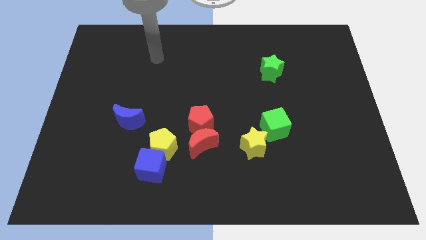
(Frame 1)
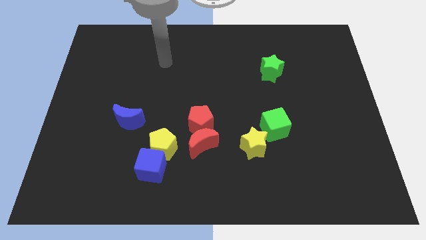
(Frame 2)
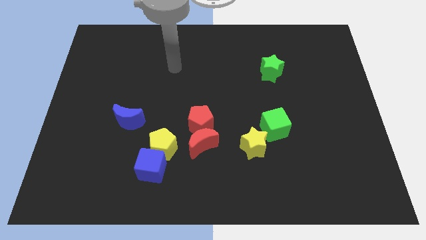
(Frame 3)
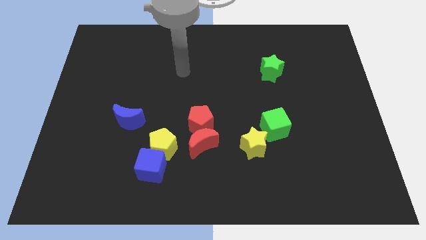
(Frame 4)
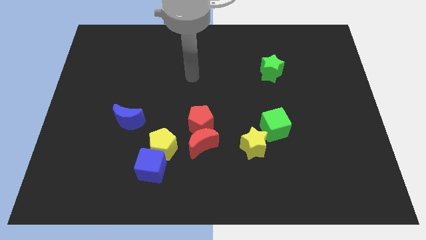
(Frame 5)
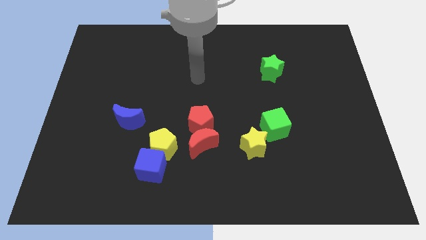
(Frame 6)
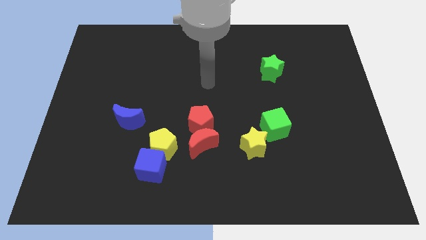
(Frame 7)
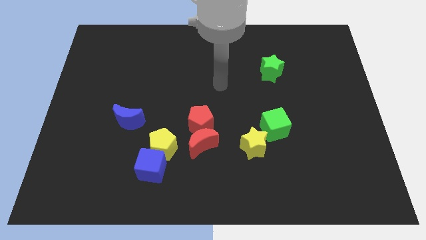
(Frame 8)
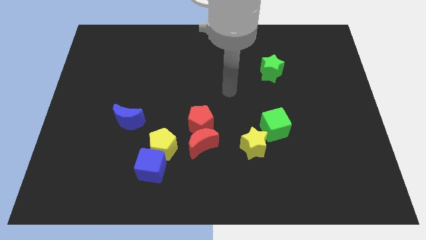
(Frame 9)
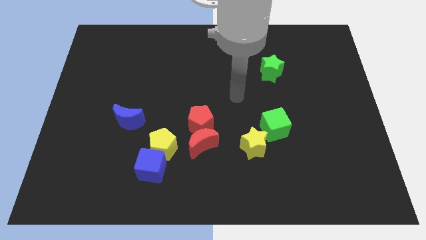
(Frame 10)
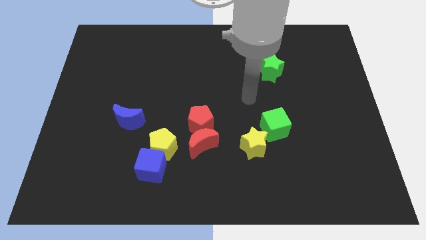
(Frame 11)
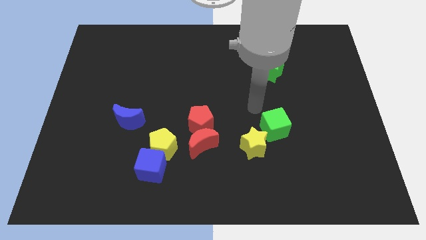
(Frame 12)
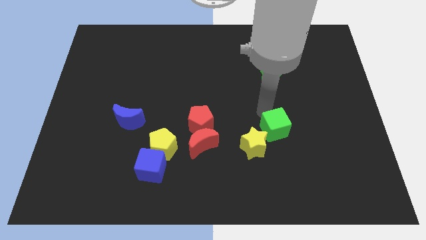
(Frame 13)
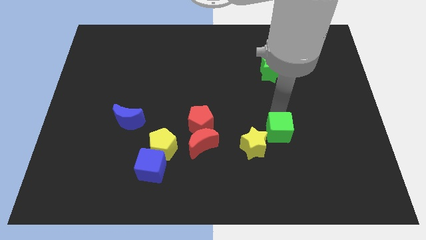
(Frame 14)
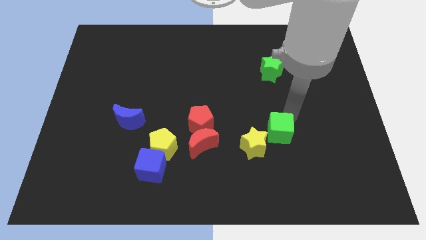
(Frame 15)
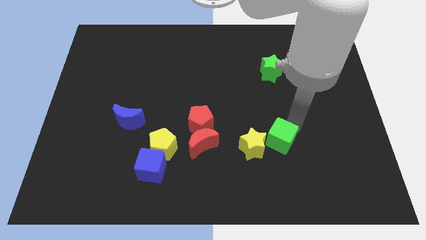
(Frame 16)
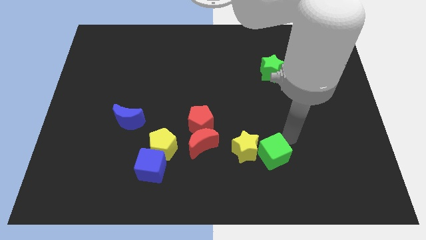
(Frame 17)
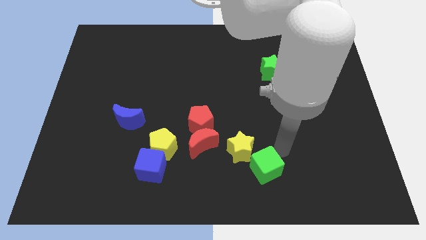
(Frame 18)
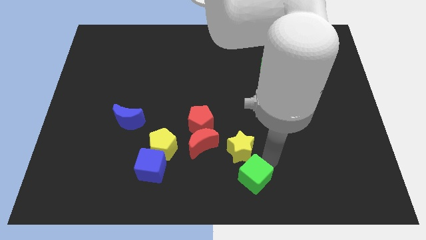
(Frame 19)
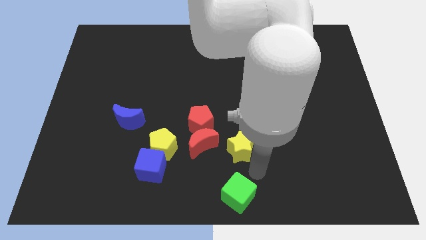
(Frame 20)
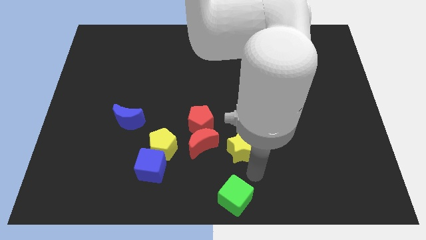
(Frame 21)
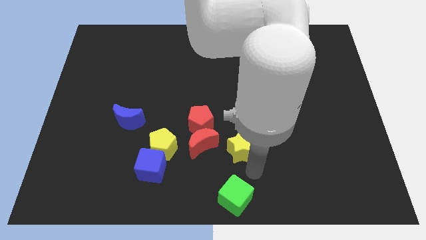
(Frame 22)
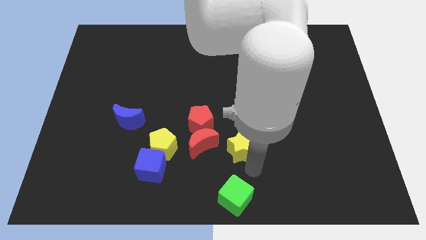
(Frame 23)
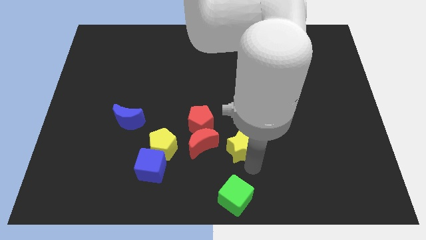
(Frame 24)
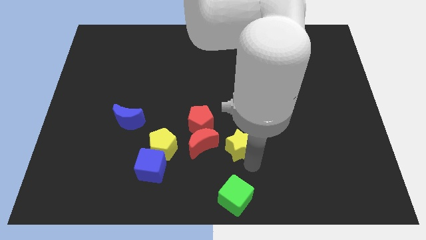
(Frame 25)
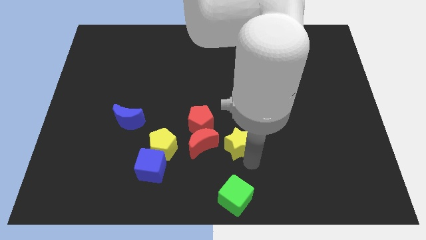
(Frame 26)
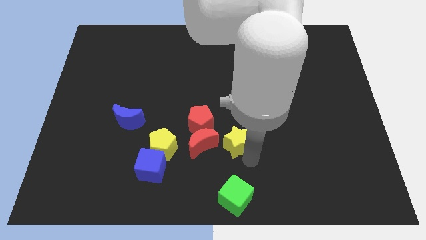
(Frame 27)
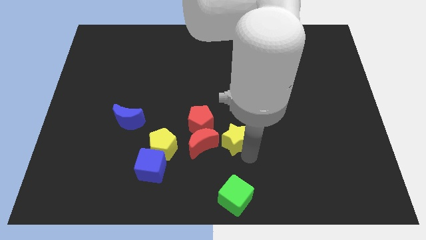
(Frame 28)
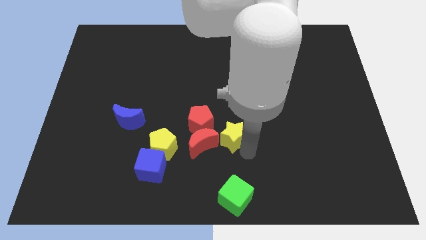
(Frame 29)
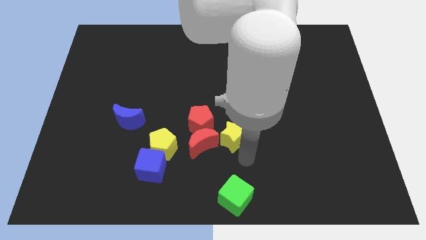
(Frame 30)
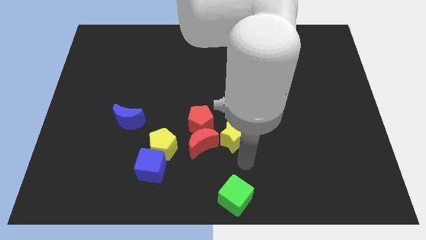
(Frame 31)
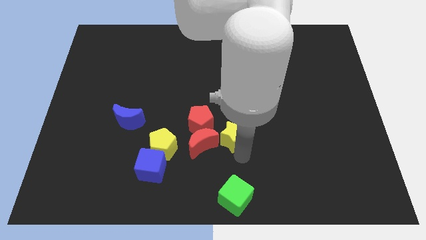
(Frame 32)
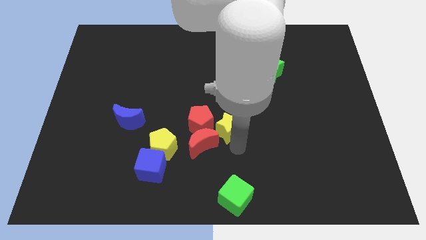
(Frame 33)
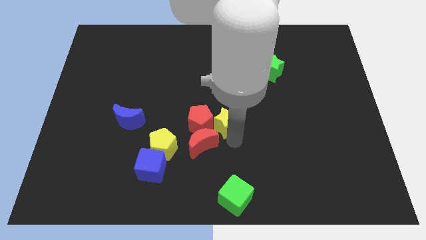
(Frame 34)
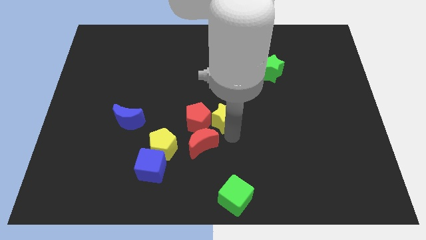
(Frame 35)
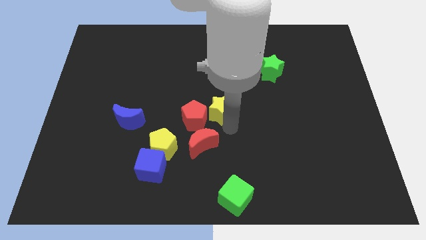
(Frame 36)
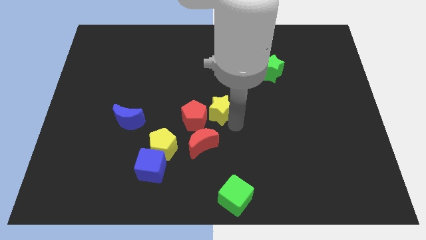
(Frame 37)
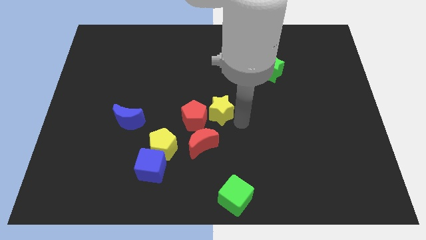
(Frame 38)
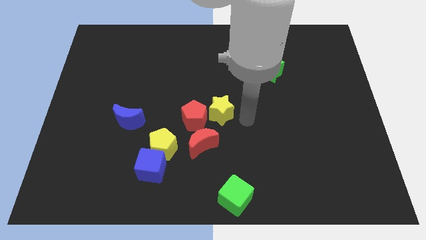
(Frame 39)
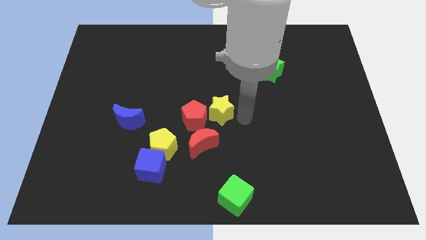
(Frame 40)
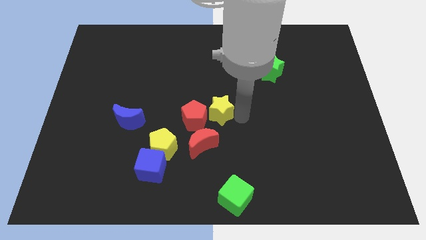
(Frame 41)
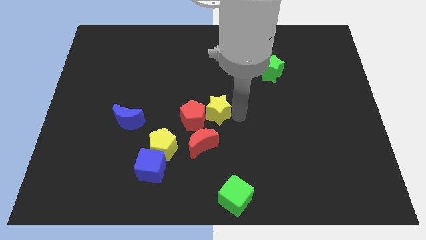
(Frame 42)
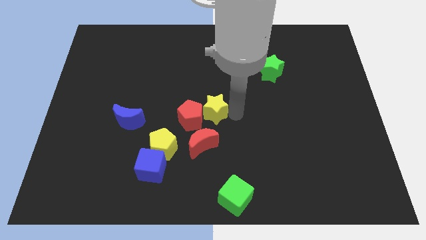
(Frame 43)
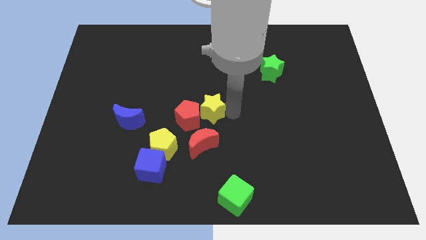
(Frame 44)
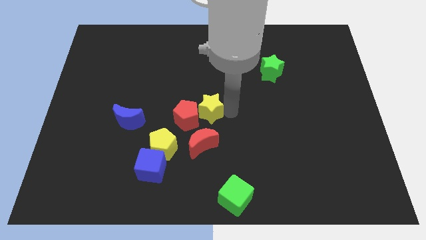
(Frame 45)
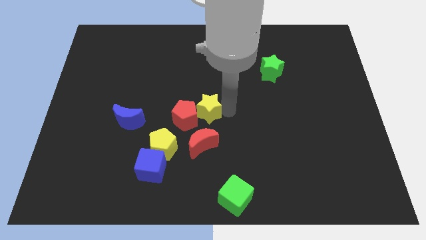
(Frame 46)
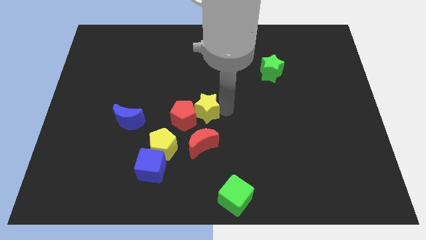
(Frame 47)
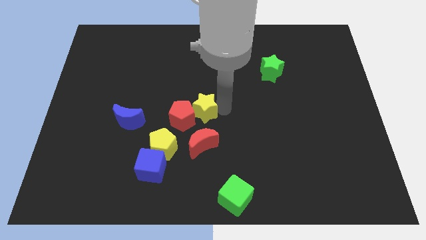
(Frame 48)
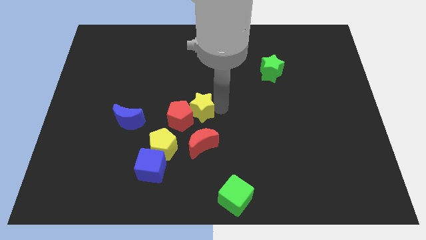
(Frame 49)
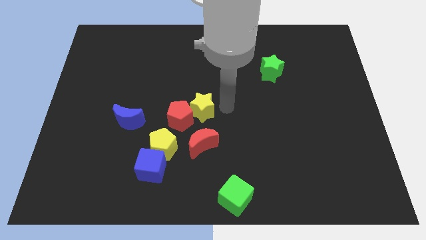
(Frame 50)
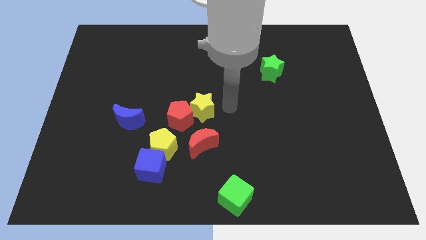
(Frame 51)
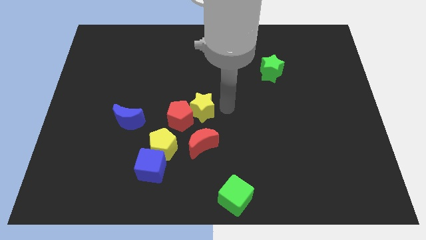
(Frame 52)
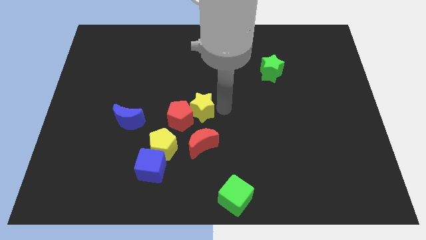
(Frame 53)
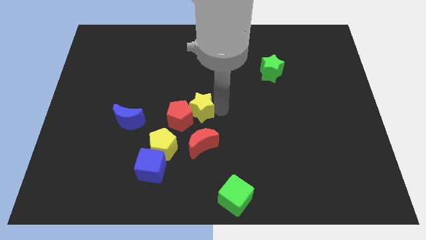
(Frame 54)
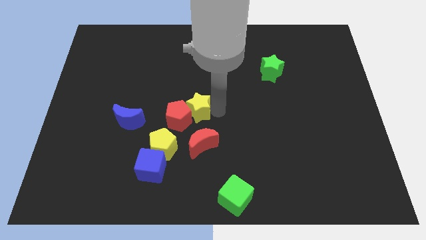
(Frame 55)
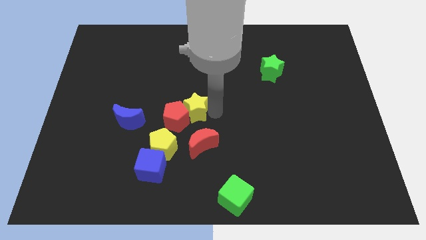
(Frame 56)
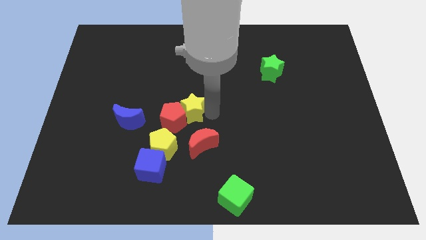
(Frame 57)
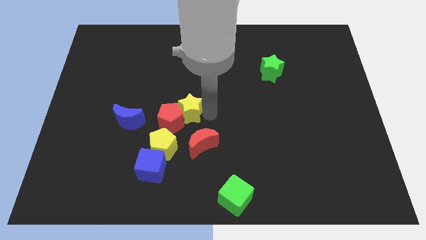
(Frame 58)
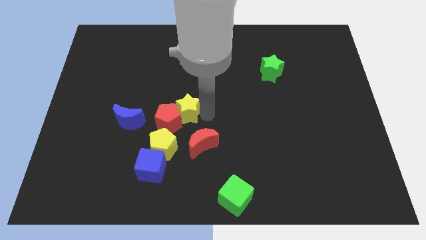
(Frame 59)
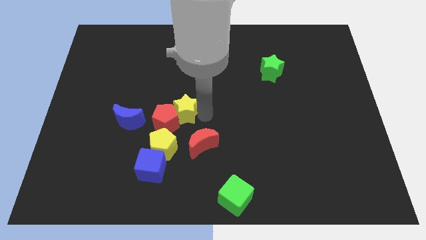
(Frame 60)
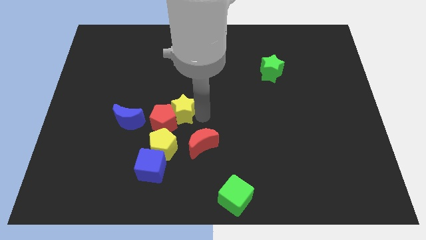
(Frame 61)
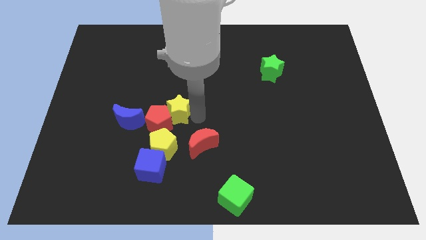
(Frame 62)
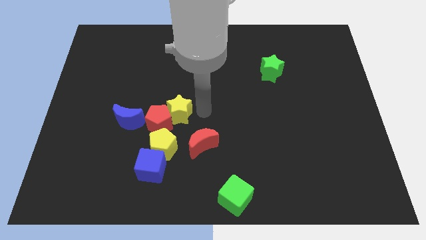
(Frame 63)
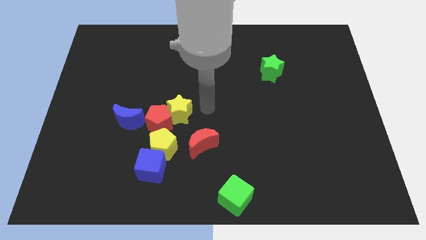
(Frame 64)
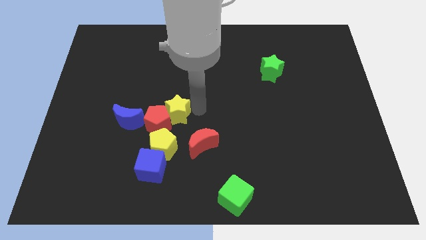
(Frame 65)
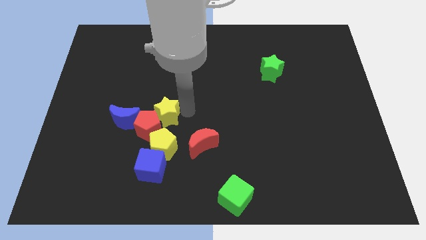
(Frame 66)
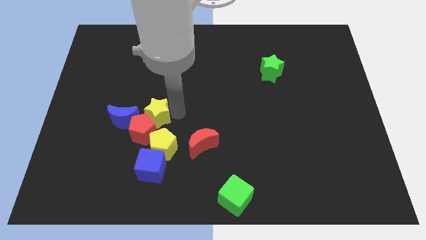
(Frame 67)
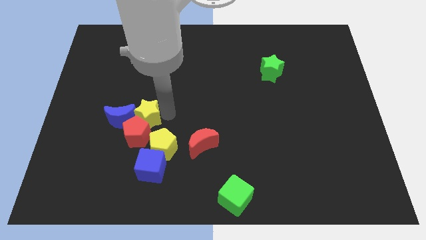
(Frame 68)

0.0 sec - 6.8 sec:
put the yellow star close to the blue moon
